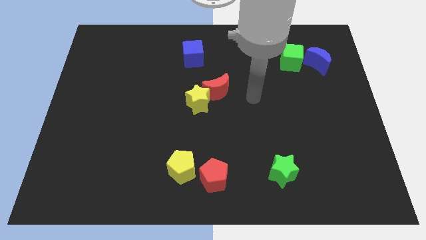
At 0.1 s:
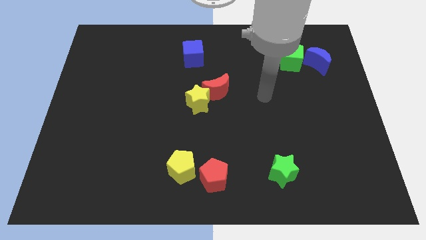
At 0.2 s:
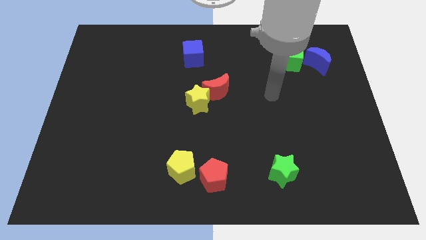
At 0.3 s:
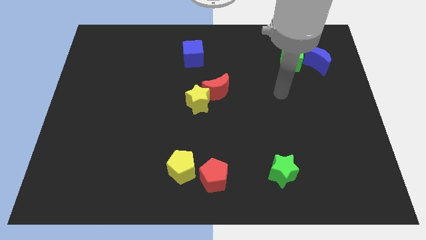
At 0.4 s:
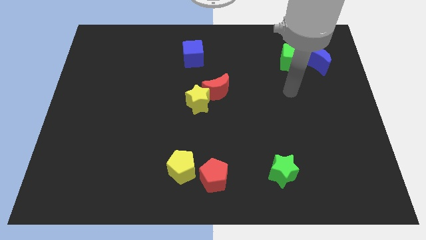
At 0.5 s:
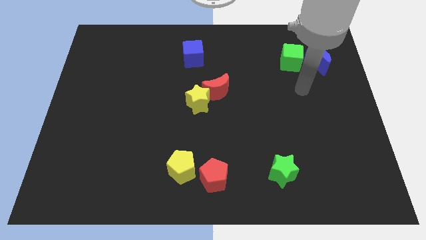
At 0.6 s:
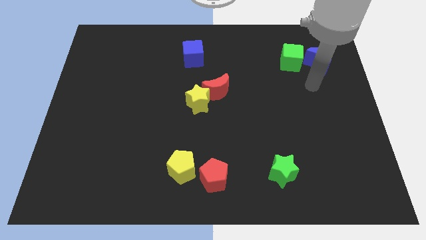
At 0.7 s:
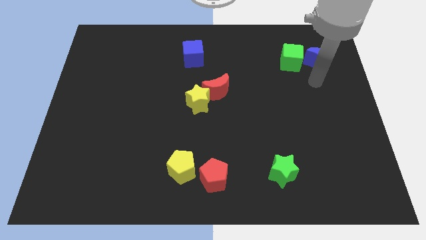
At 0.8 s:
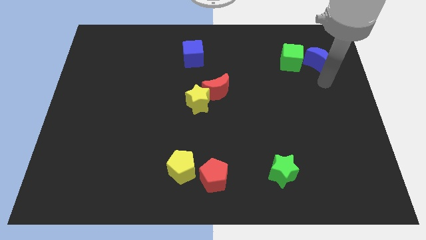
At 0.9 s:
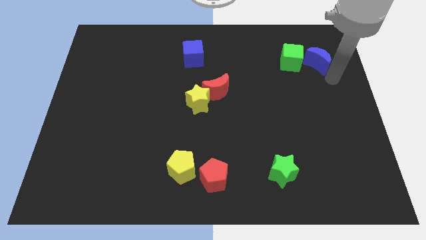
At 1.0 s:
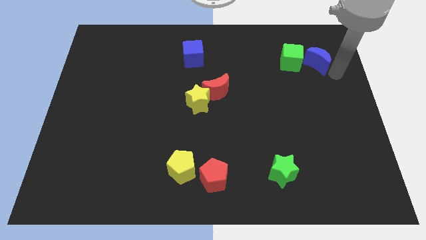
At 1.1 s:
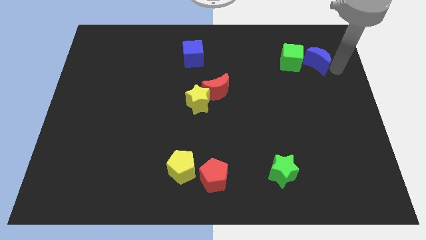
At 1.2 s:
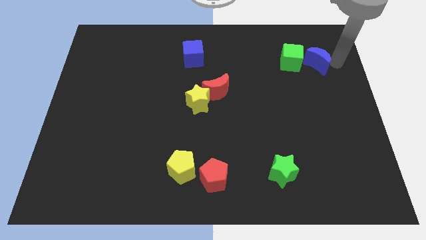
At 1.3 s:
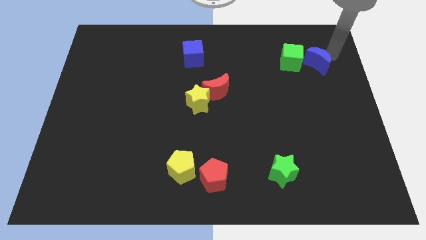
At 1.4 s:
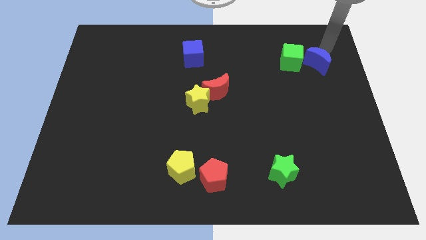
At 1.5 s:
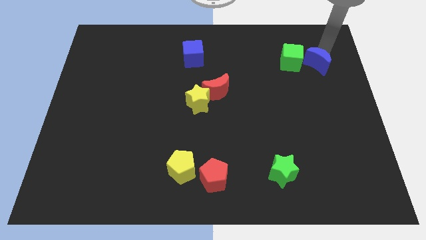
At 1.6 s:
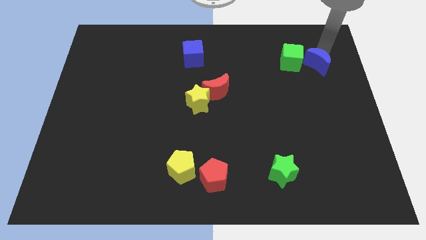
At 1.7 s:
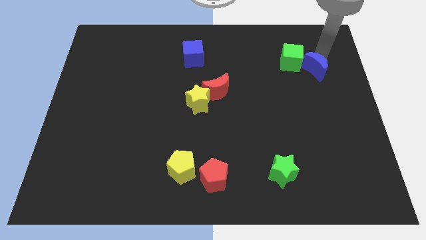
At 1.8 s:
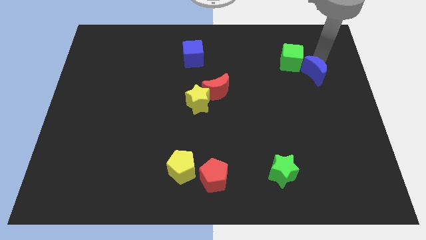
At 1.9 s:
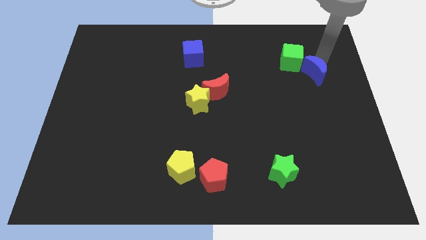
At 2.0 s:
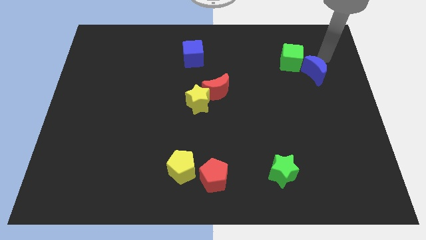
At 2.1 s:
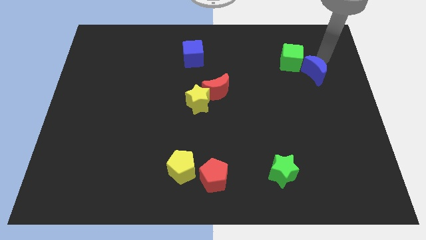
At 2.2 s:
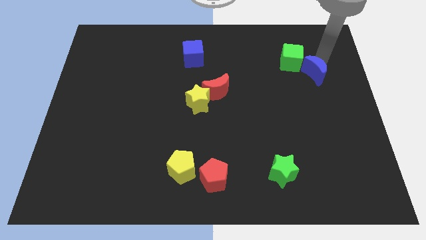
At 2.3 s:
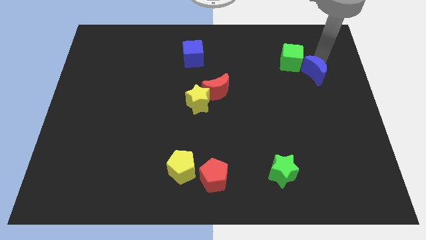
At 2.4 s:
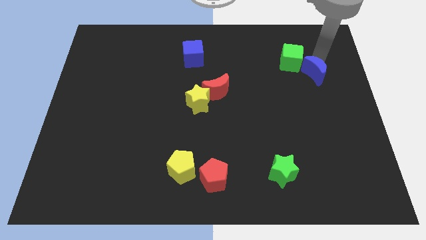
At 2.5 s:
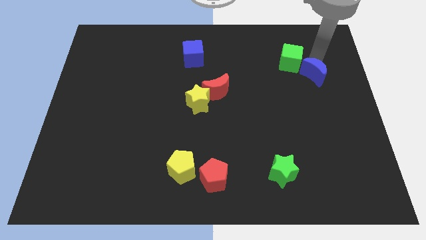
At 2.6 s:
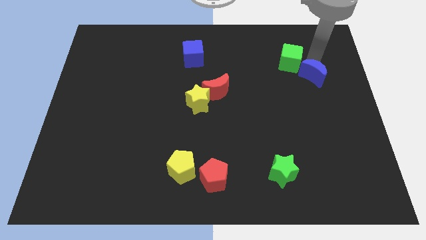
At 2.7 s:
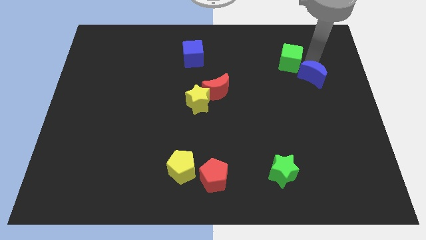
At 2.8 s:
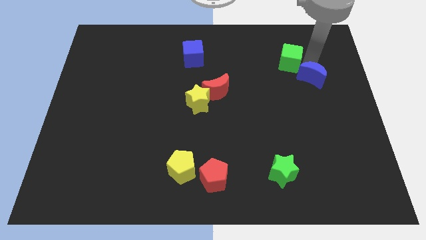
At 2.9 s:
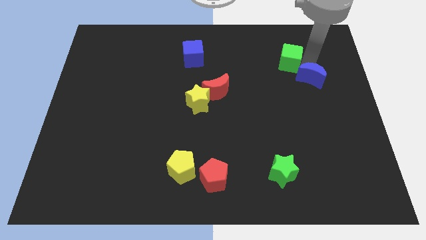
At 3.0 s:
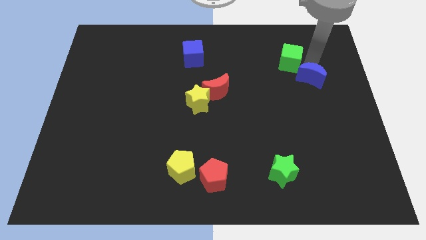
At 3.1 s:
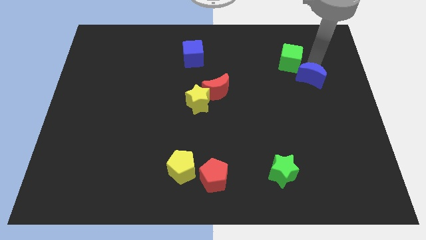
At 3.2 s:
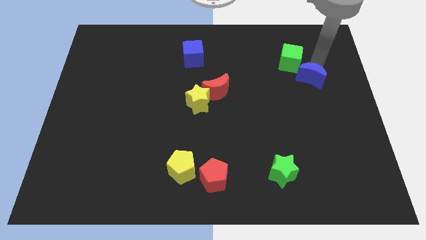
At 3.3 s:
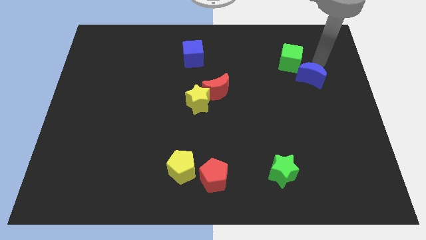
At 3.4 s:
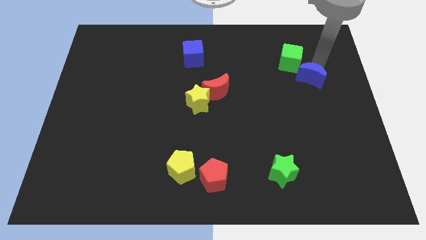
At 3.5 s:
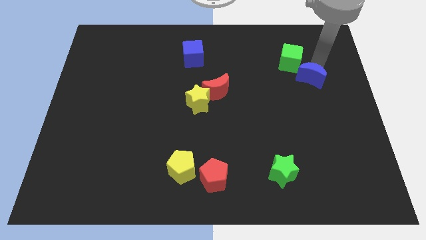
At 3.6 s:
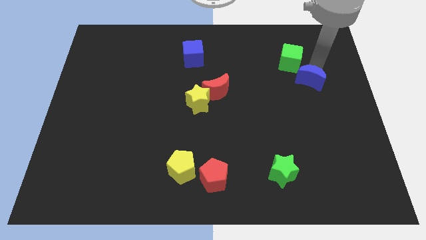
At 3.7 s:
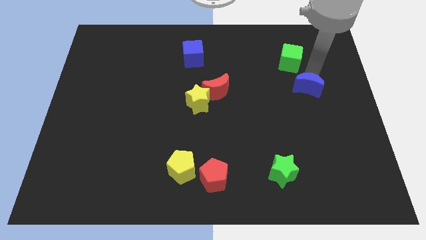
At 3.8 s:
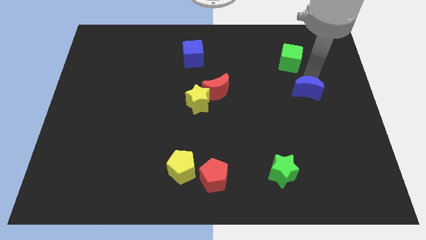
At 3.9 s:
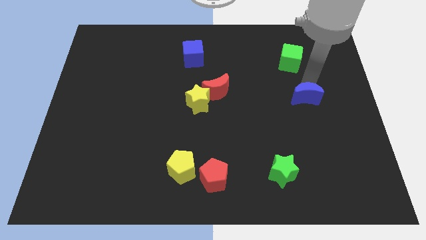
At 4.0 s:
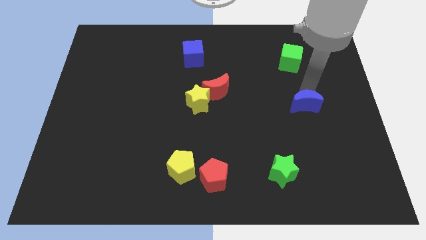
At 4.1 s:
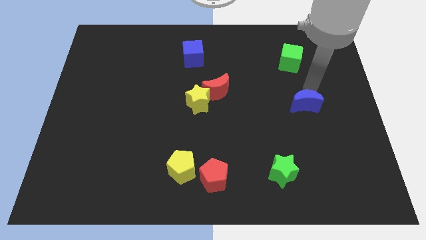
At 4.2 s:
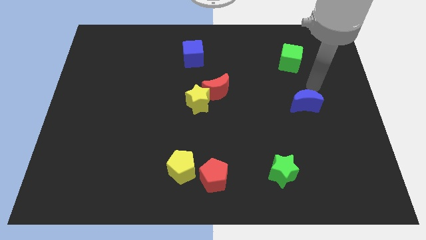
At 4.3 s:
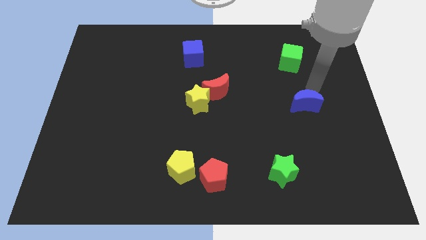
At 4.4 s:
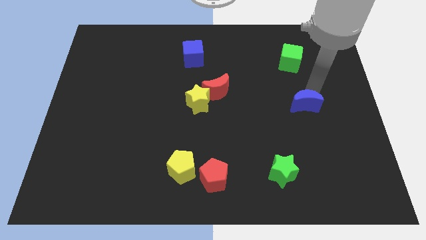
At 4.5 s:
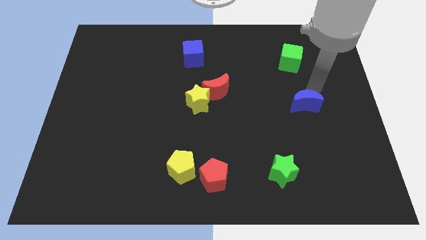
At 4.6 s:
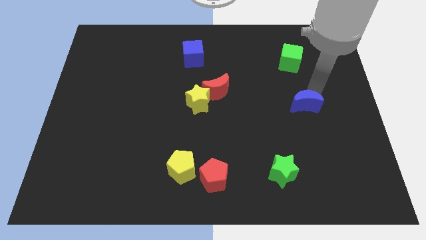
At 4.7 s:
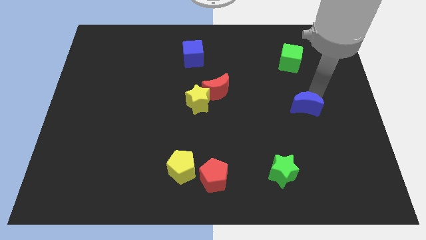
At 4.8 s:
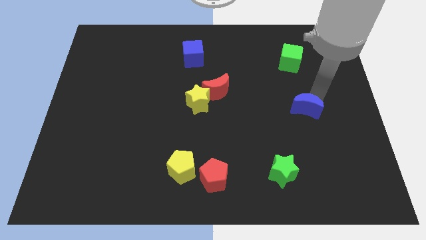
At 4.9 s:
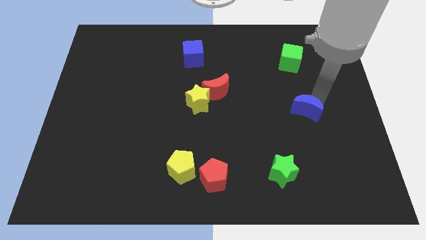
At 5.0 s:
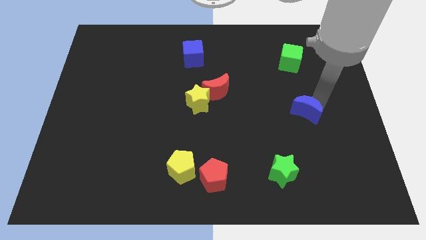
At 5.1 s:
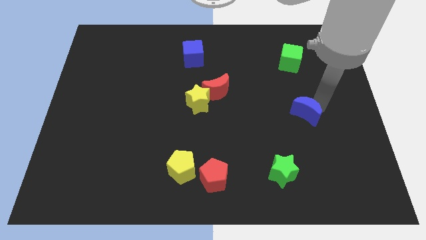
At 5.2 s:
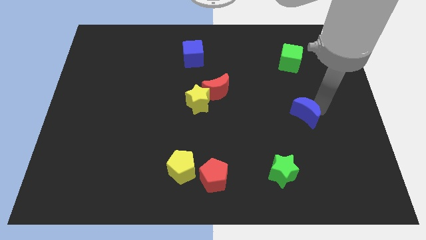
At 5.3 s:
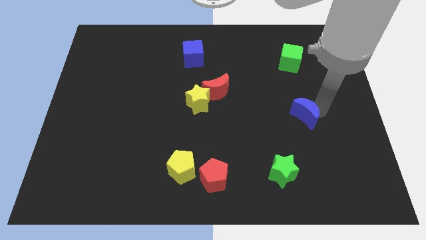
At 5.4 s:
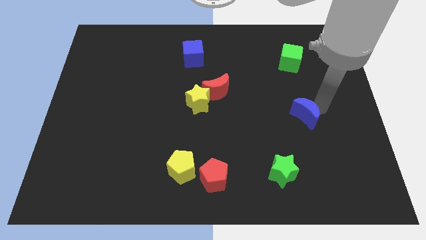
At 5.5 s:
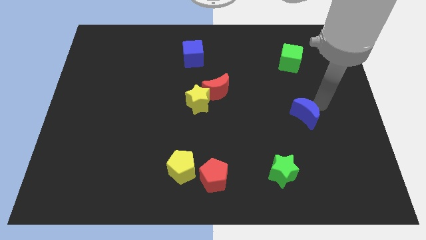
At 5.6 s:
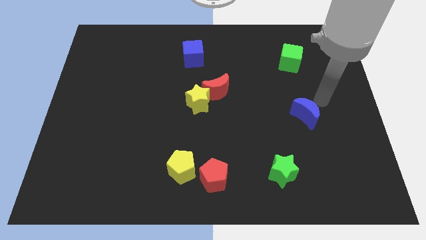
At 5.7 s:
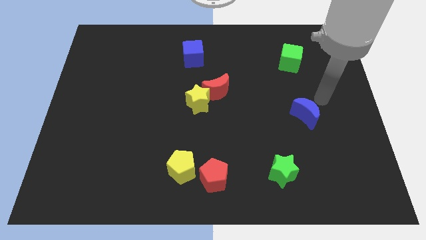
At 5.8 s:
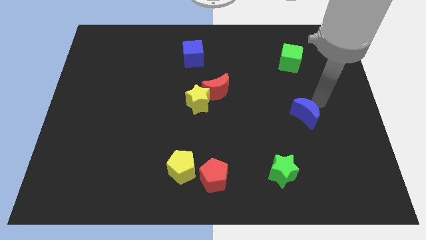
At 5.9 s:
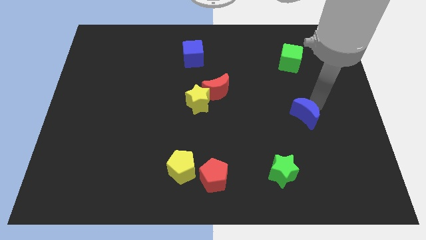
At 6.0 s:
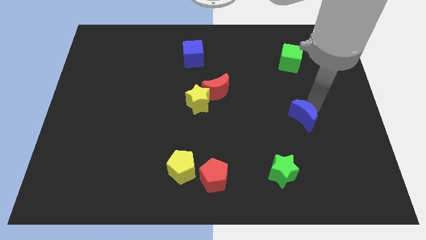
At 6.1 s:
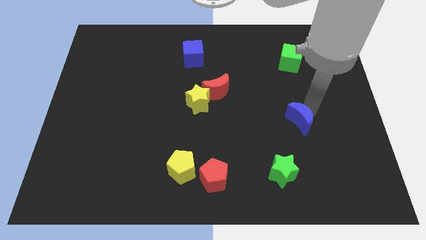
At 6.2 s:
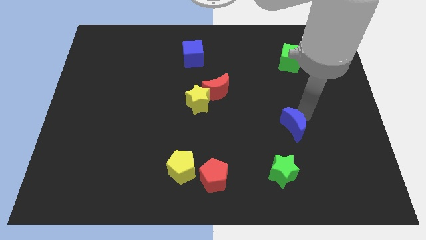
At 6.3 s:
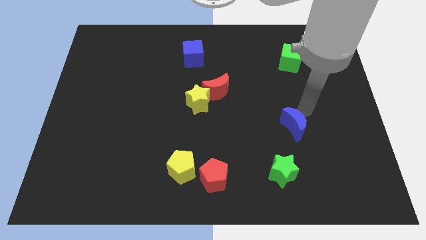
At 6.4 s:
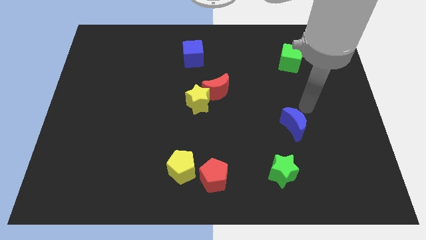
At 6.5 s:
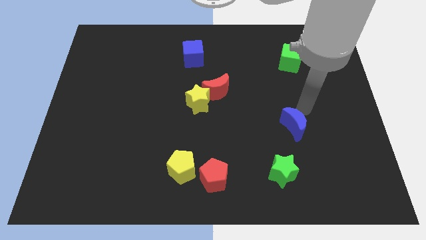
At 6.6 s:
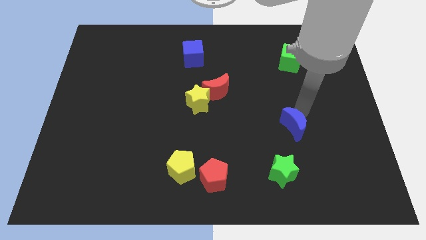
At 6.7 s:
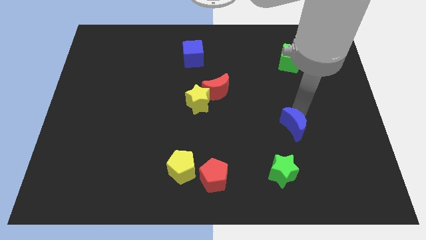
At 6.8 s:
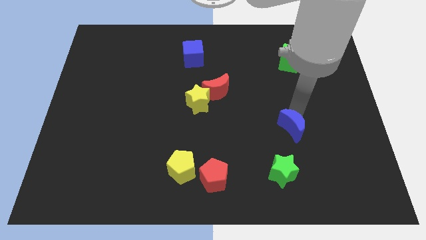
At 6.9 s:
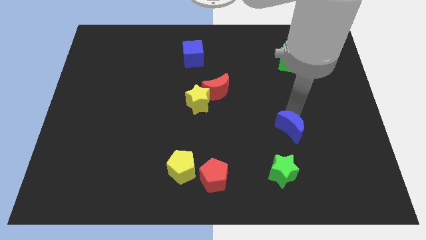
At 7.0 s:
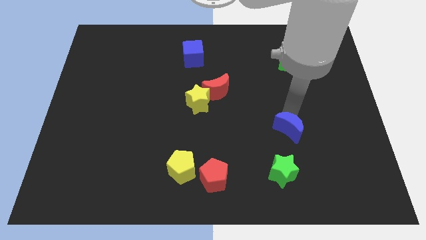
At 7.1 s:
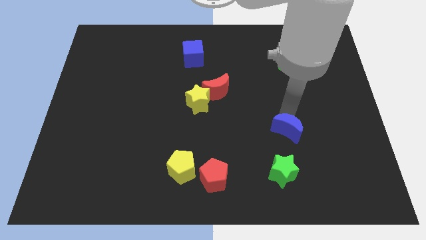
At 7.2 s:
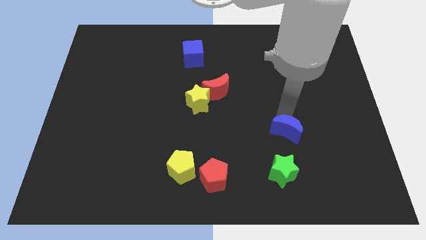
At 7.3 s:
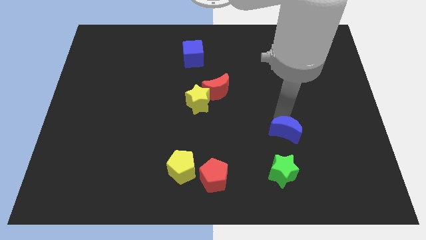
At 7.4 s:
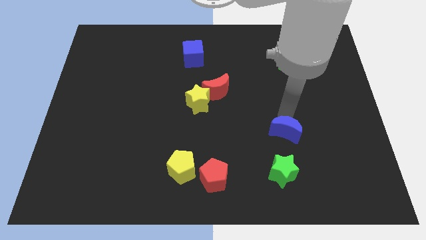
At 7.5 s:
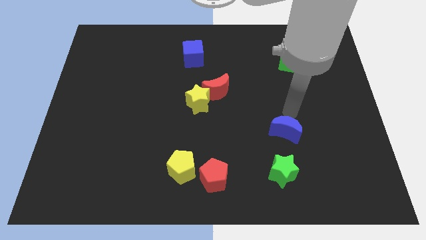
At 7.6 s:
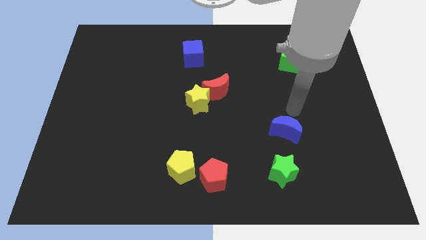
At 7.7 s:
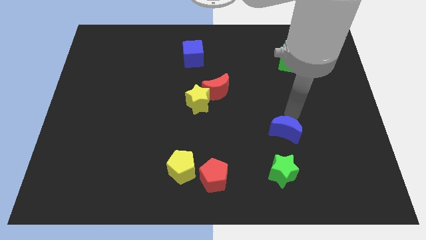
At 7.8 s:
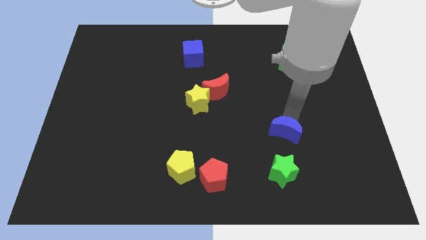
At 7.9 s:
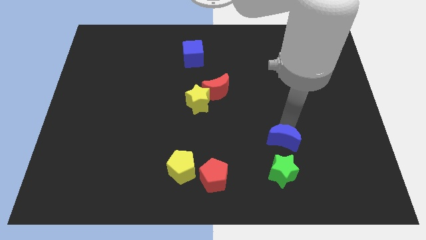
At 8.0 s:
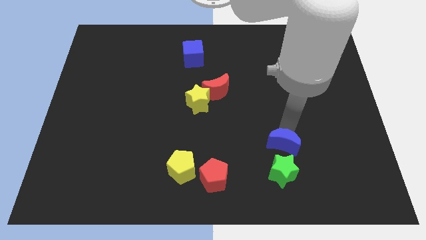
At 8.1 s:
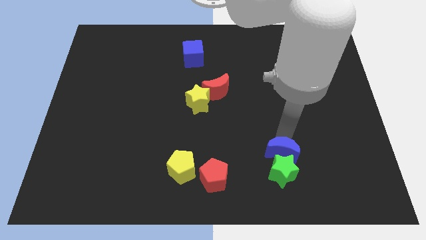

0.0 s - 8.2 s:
move the blue moon towards the green star
